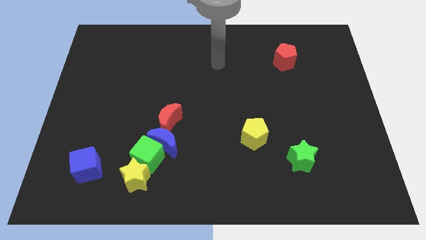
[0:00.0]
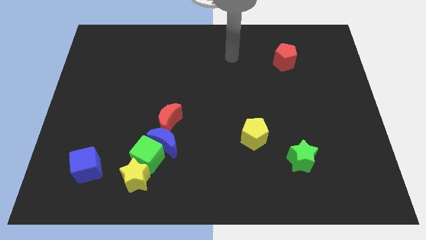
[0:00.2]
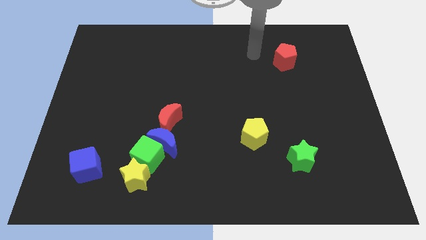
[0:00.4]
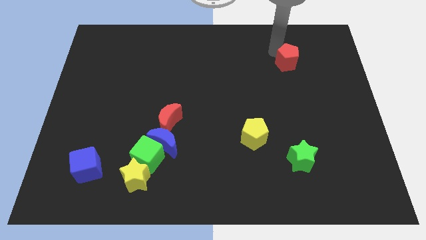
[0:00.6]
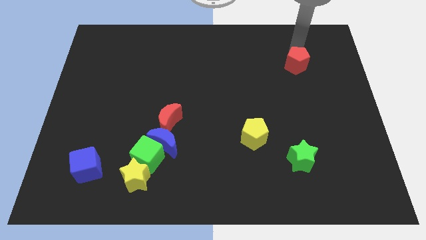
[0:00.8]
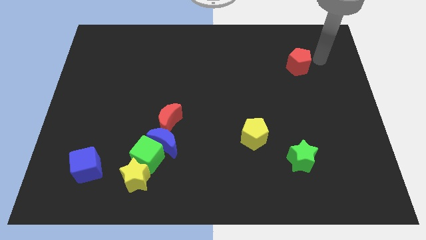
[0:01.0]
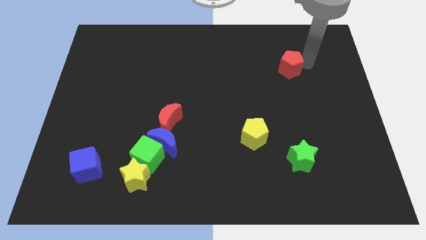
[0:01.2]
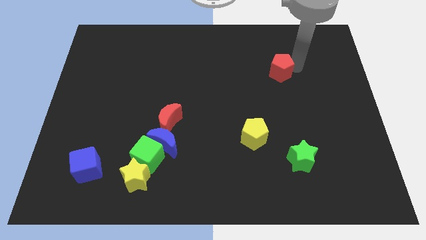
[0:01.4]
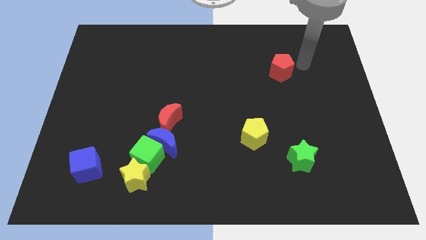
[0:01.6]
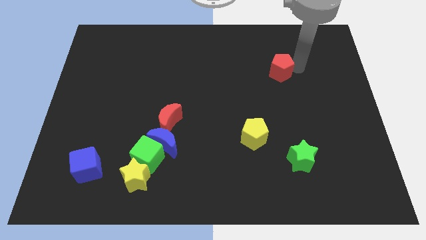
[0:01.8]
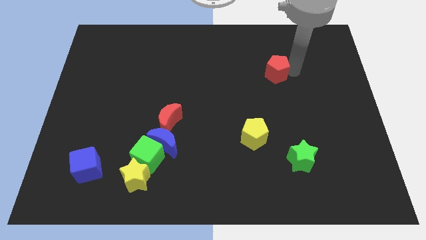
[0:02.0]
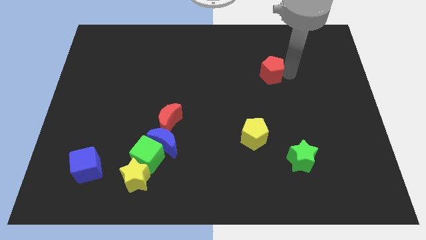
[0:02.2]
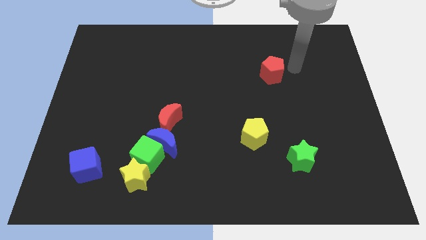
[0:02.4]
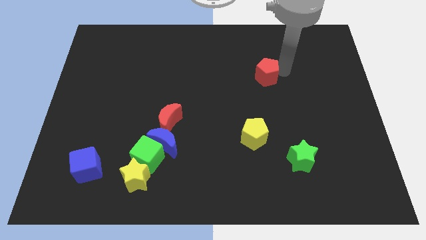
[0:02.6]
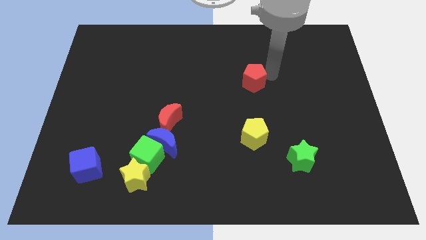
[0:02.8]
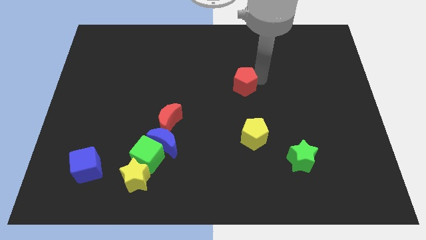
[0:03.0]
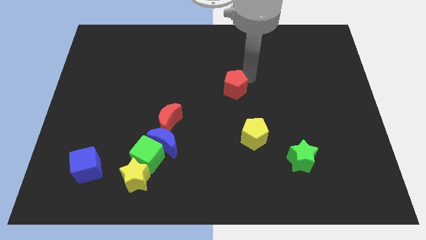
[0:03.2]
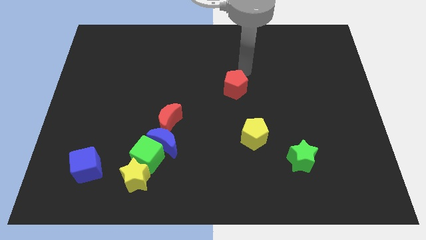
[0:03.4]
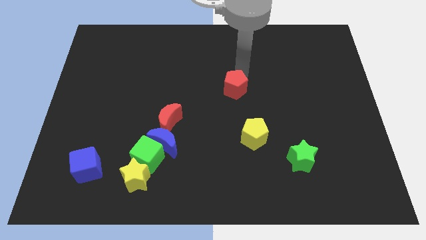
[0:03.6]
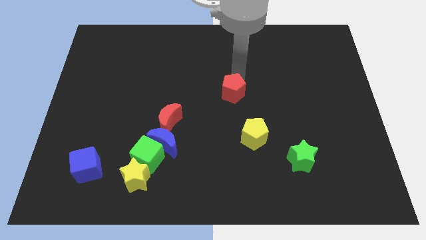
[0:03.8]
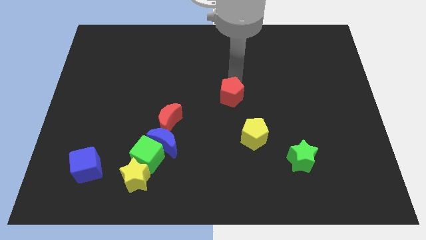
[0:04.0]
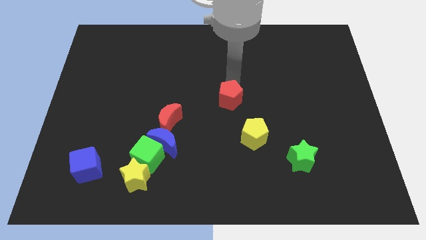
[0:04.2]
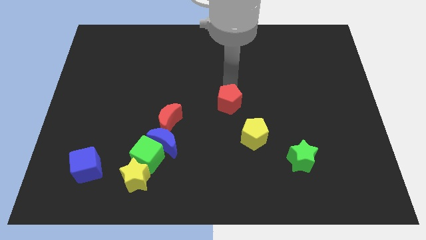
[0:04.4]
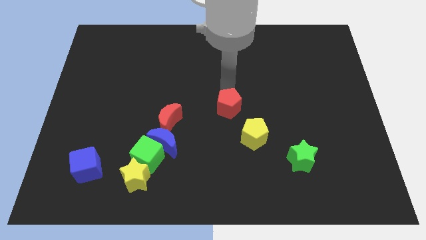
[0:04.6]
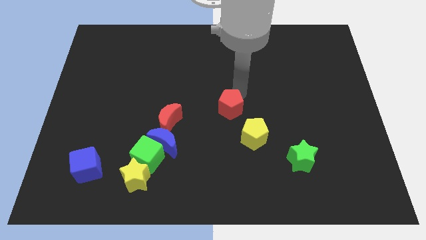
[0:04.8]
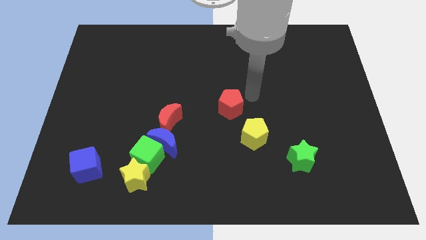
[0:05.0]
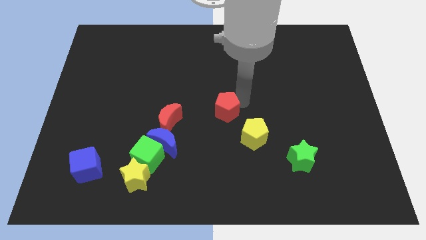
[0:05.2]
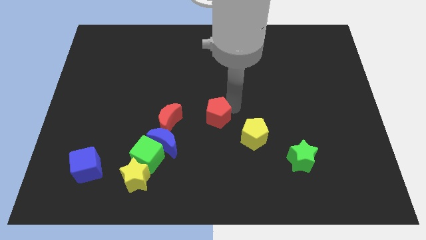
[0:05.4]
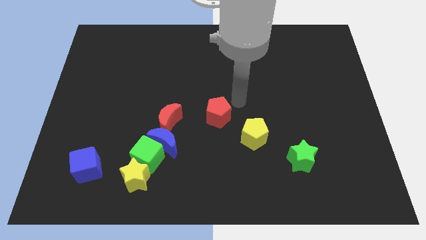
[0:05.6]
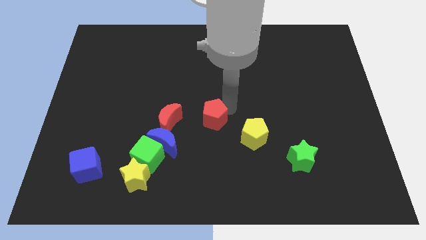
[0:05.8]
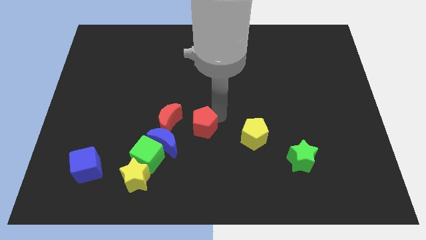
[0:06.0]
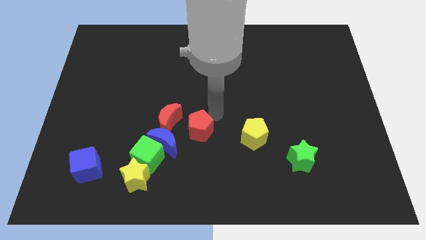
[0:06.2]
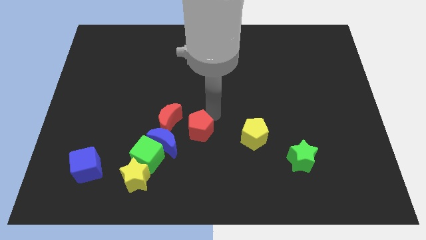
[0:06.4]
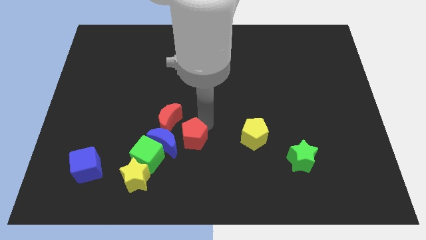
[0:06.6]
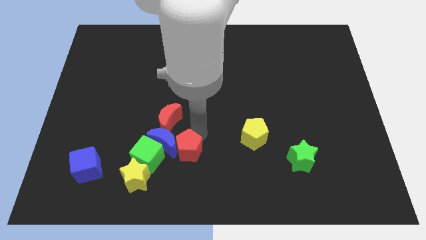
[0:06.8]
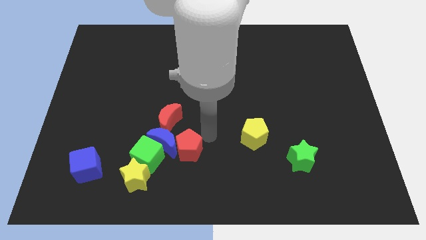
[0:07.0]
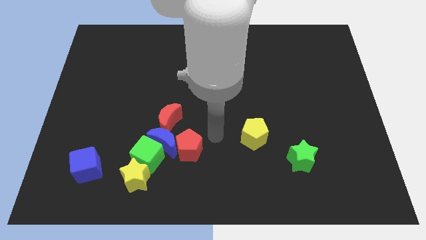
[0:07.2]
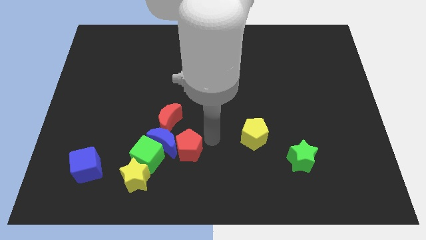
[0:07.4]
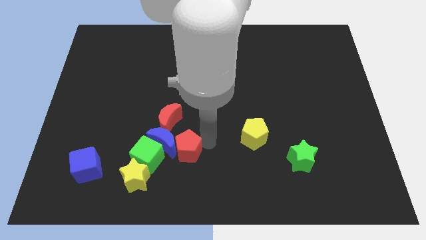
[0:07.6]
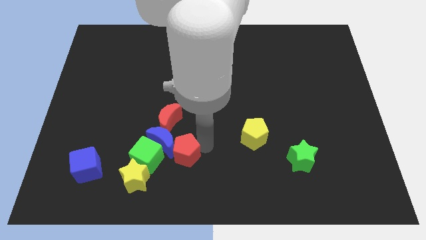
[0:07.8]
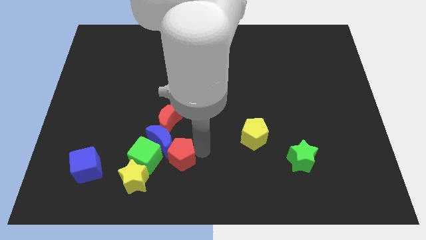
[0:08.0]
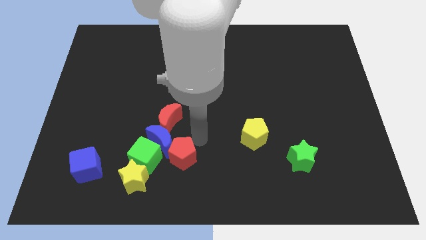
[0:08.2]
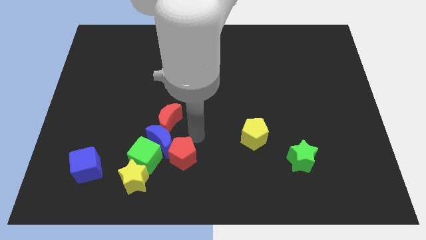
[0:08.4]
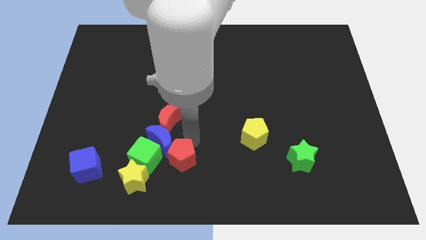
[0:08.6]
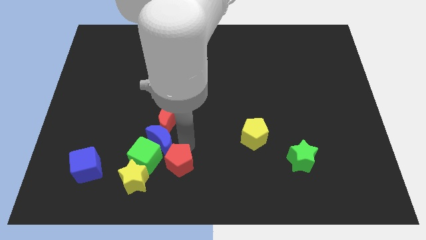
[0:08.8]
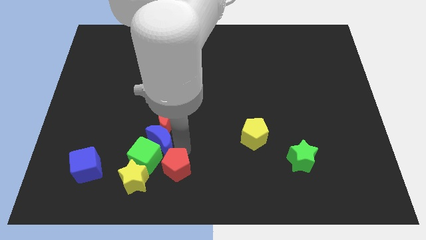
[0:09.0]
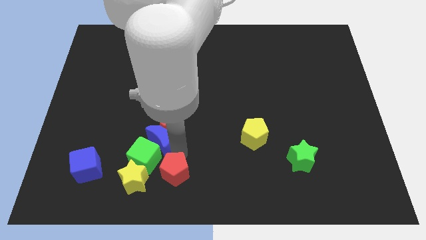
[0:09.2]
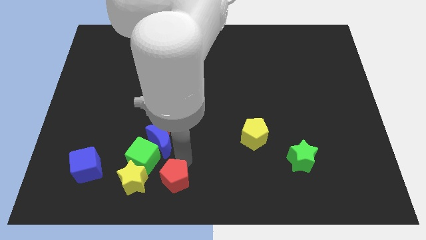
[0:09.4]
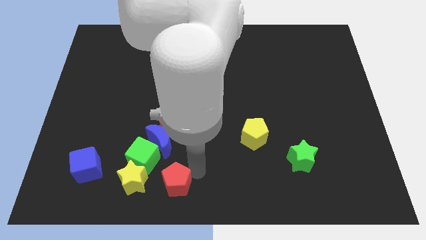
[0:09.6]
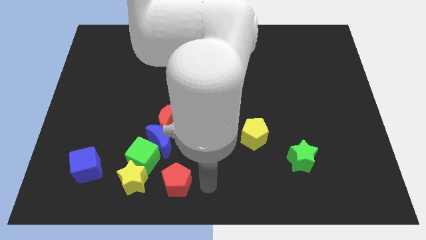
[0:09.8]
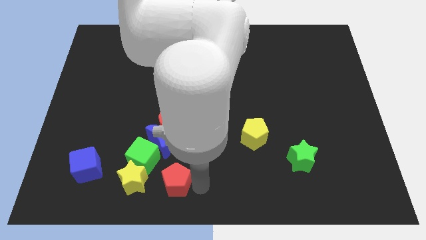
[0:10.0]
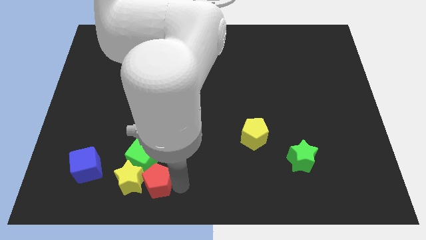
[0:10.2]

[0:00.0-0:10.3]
put the red pentagon next to the yellow star

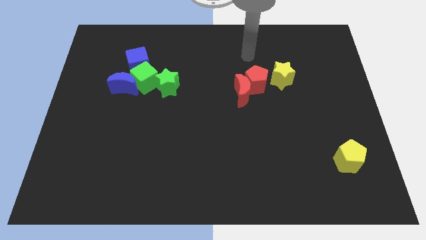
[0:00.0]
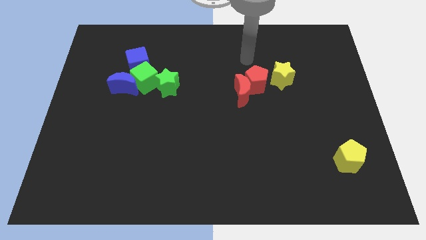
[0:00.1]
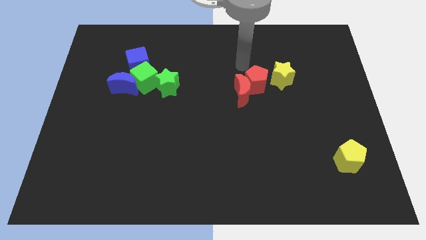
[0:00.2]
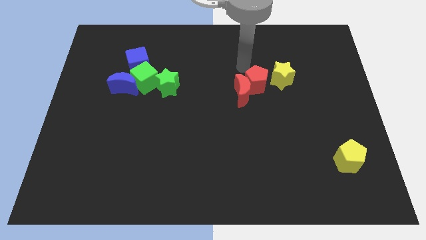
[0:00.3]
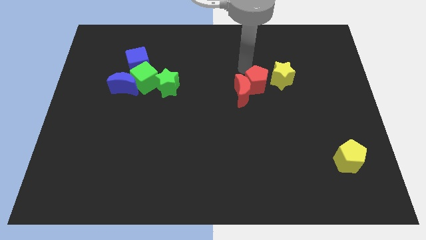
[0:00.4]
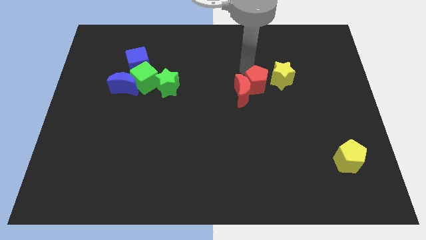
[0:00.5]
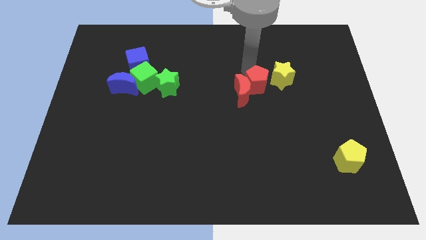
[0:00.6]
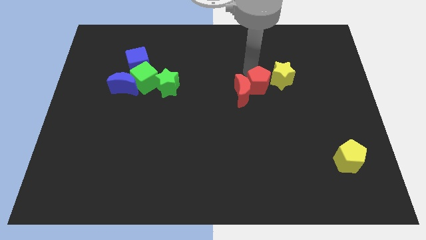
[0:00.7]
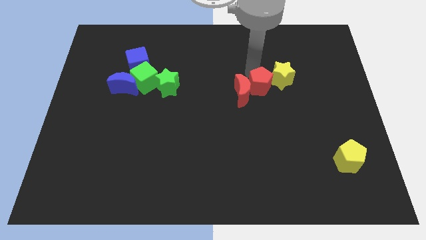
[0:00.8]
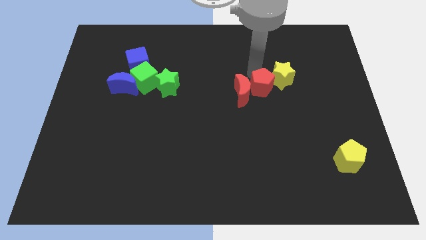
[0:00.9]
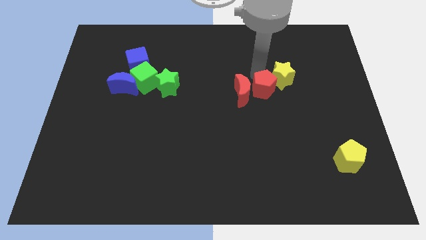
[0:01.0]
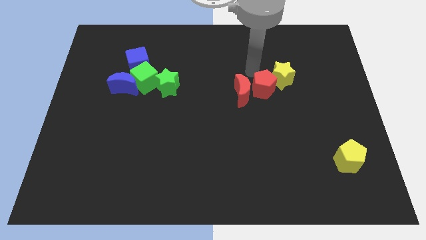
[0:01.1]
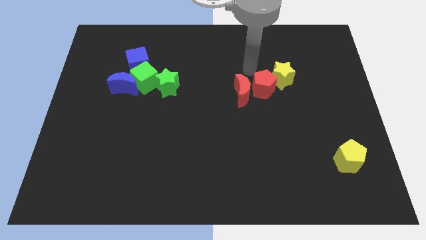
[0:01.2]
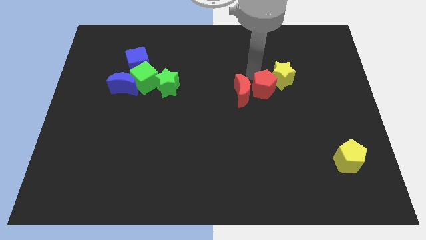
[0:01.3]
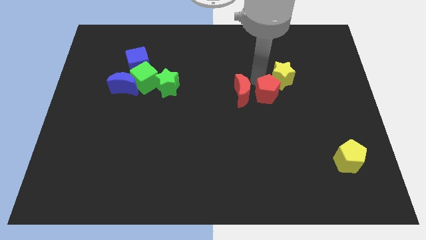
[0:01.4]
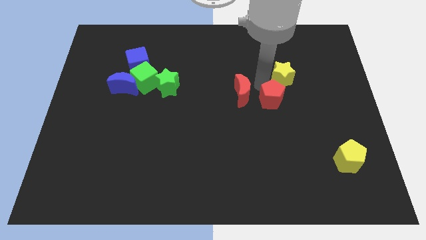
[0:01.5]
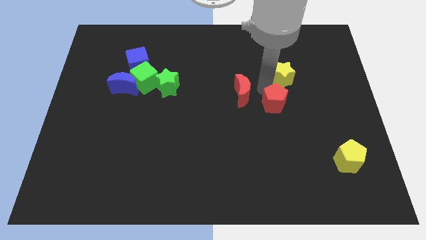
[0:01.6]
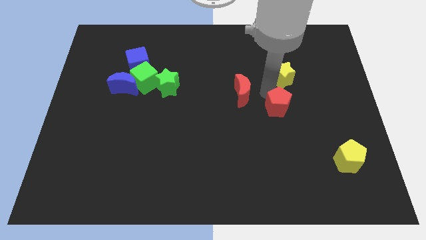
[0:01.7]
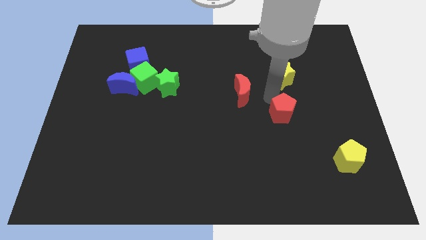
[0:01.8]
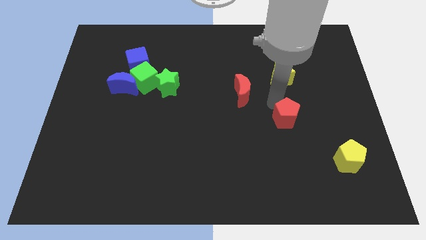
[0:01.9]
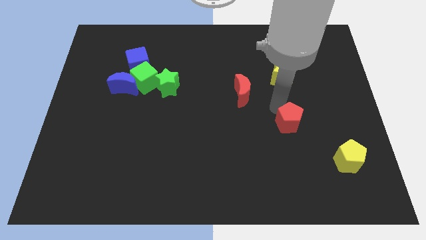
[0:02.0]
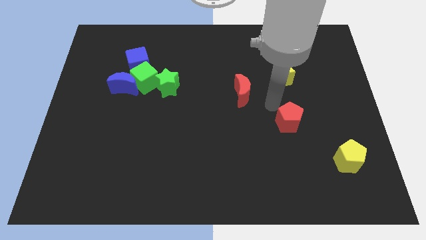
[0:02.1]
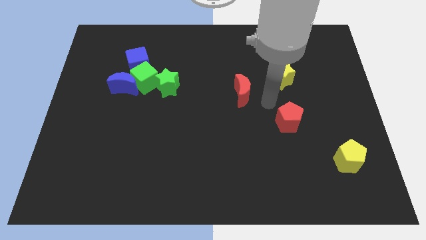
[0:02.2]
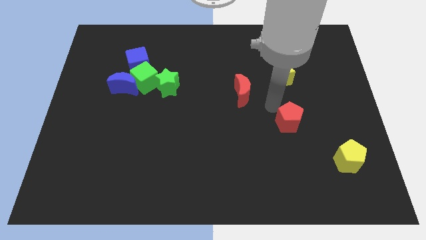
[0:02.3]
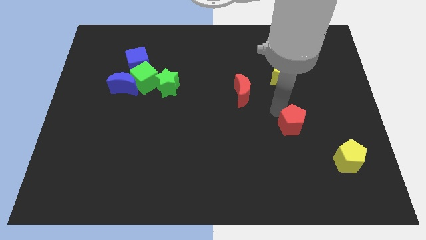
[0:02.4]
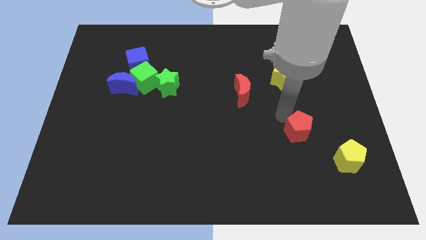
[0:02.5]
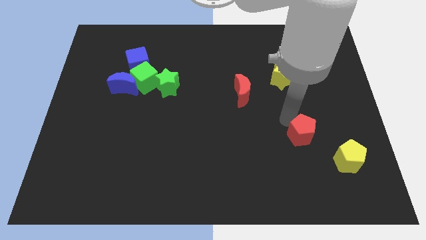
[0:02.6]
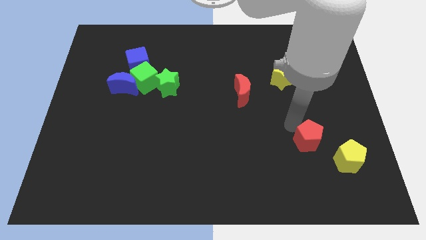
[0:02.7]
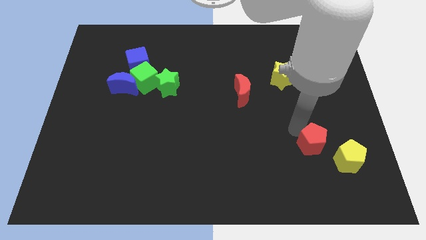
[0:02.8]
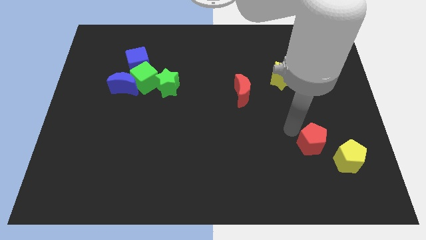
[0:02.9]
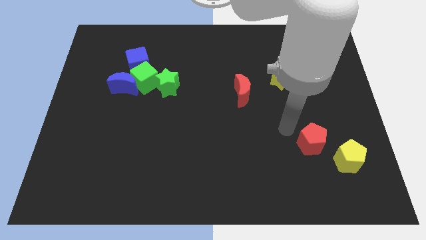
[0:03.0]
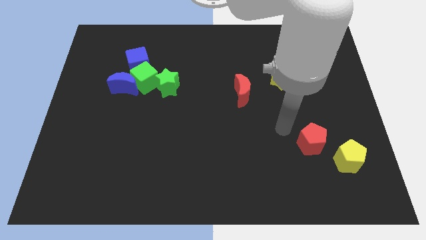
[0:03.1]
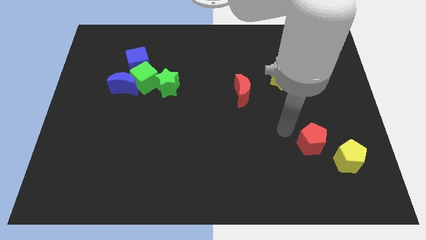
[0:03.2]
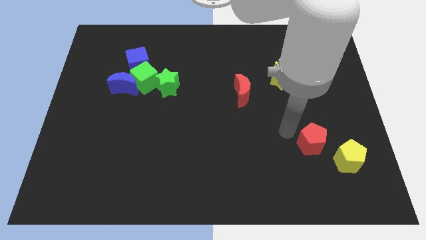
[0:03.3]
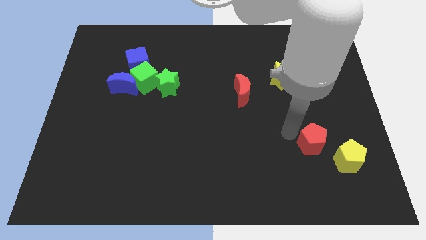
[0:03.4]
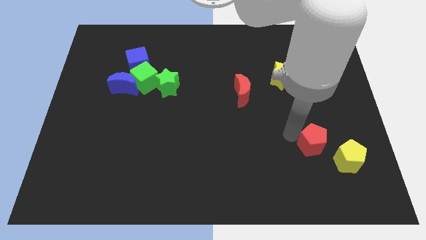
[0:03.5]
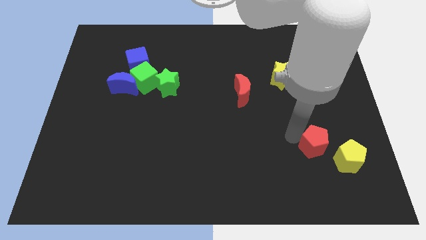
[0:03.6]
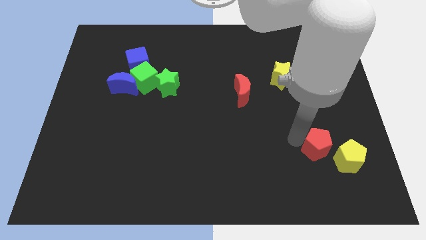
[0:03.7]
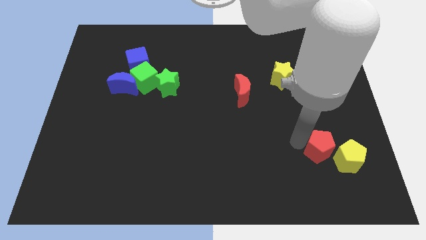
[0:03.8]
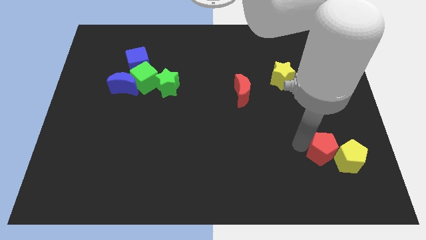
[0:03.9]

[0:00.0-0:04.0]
move the red pentagon to the yellow pentagon
